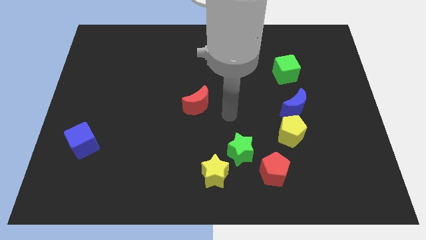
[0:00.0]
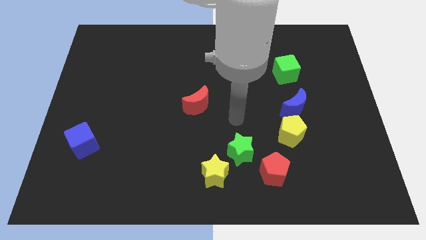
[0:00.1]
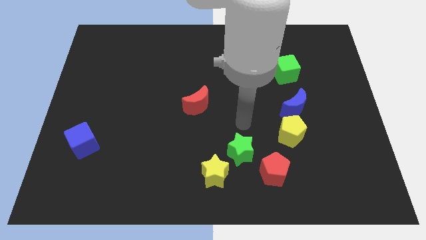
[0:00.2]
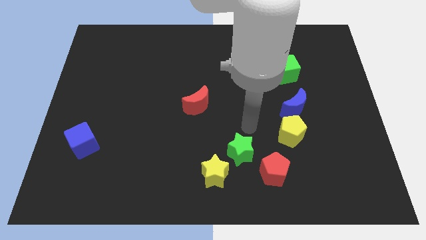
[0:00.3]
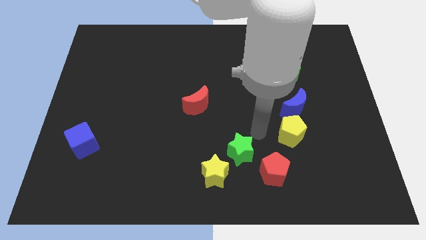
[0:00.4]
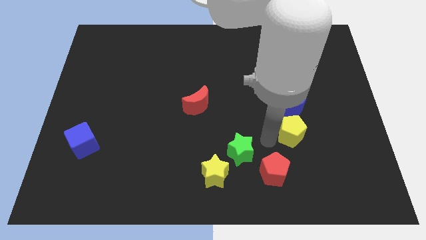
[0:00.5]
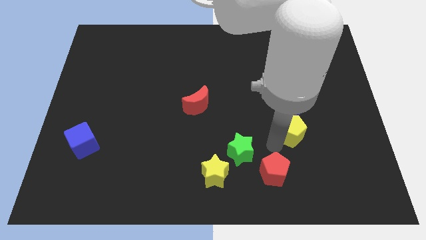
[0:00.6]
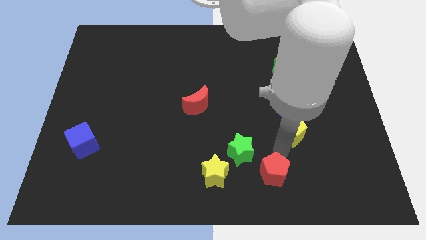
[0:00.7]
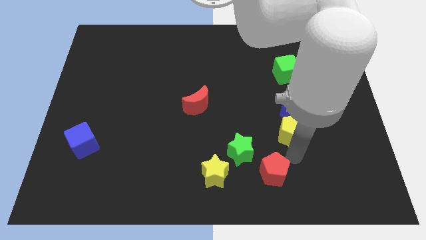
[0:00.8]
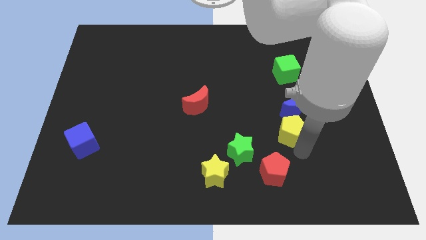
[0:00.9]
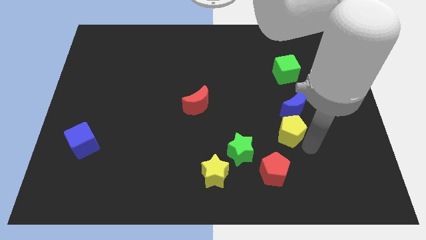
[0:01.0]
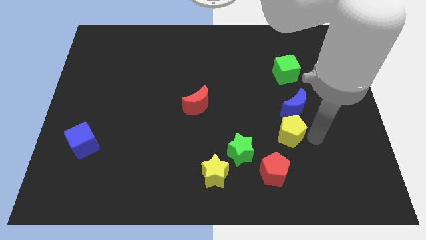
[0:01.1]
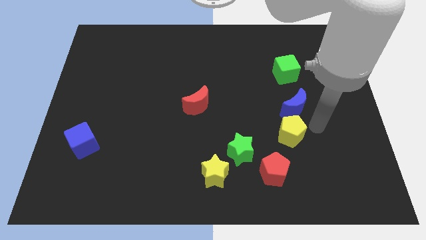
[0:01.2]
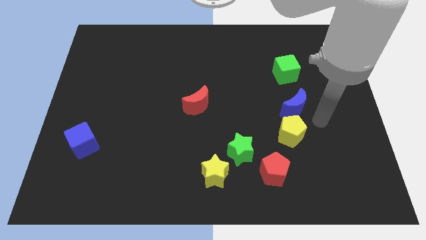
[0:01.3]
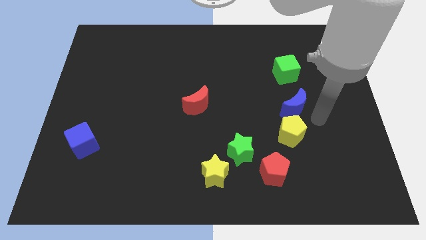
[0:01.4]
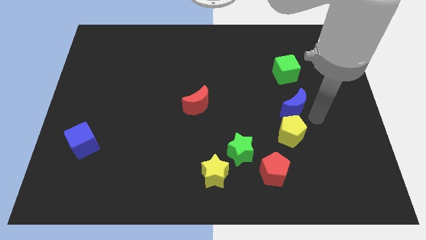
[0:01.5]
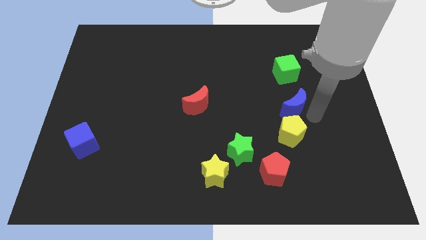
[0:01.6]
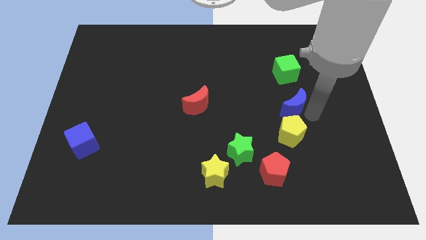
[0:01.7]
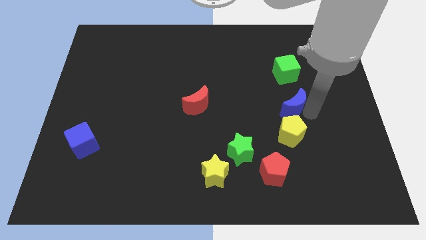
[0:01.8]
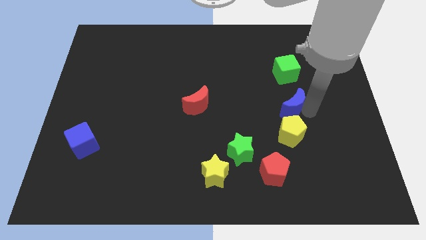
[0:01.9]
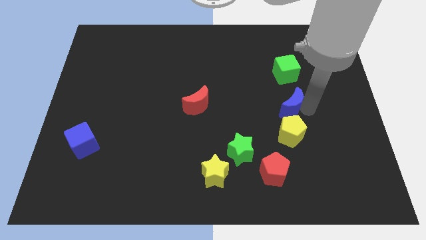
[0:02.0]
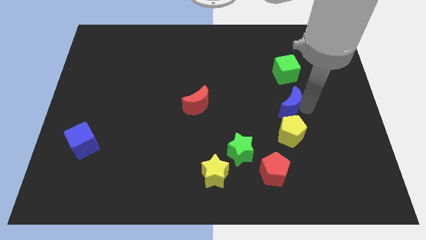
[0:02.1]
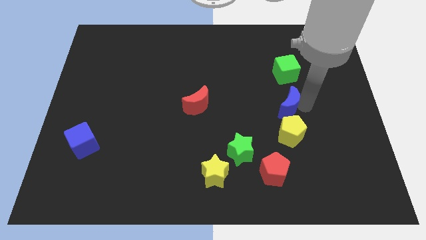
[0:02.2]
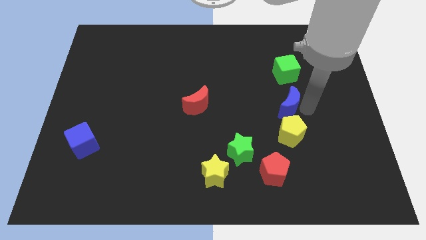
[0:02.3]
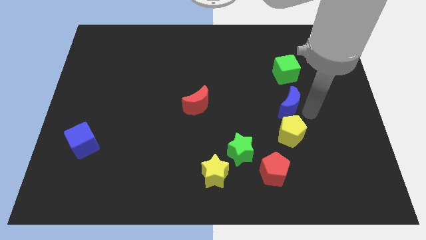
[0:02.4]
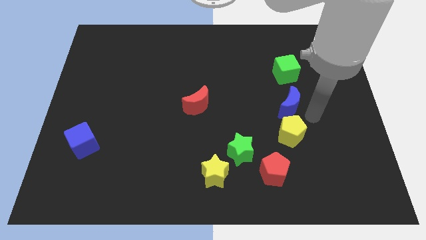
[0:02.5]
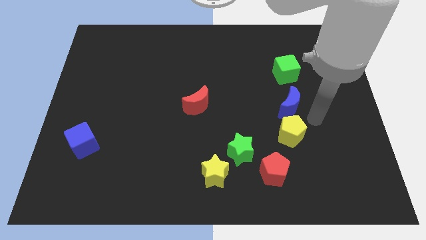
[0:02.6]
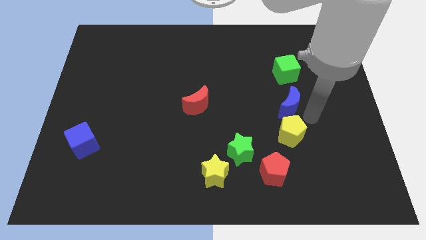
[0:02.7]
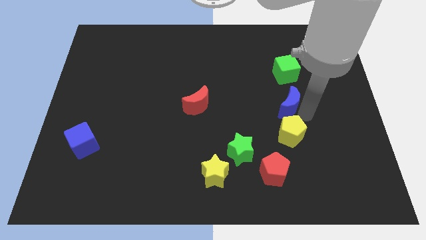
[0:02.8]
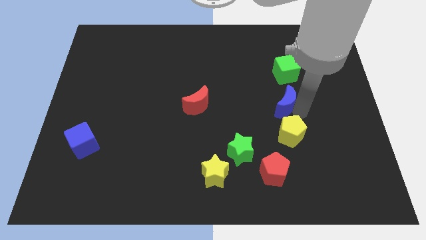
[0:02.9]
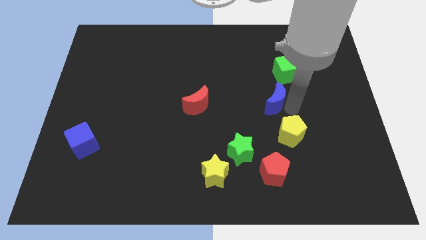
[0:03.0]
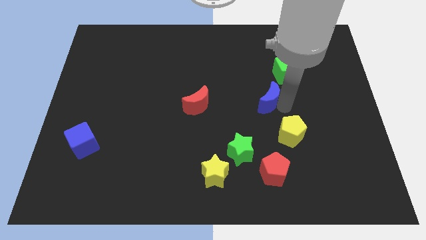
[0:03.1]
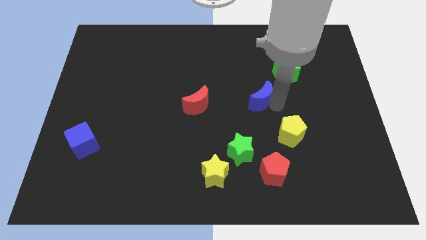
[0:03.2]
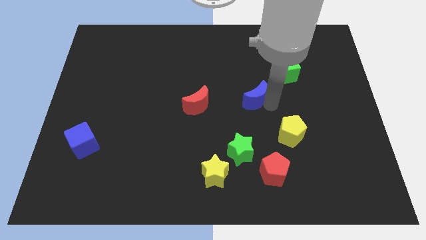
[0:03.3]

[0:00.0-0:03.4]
slightly move the blue moon diagonally upwards and left

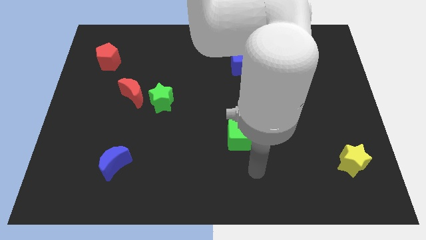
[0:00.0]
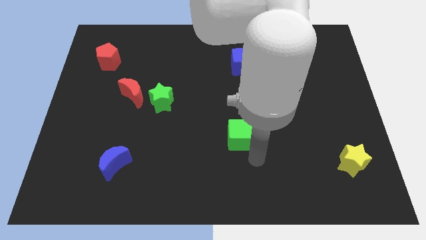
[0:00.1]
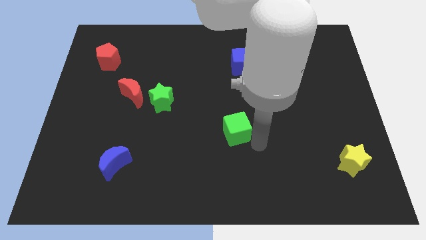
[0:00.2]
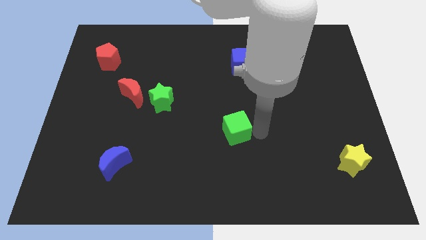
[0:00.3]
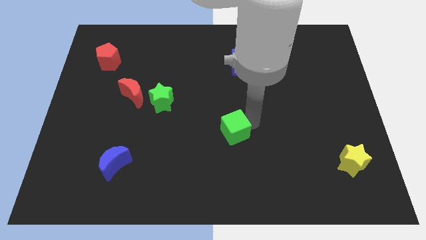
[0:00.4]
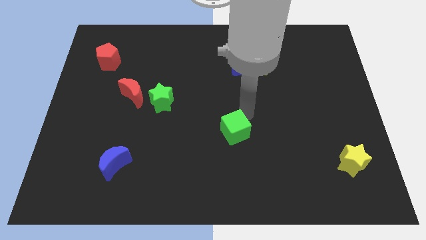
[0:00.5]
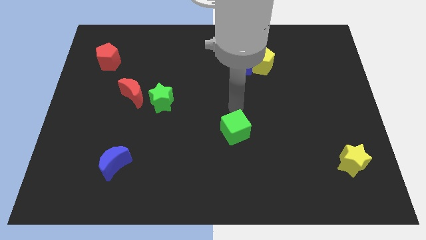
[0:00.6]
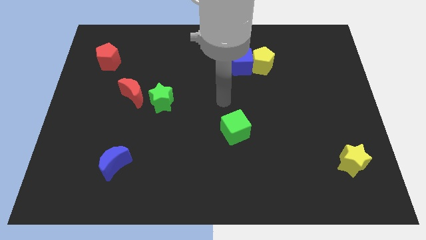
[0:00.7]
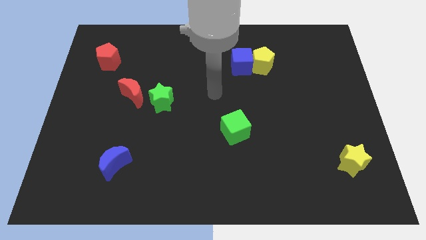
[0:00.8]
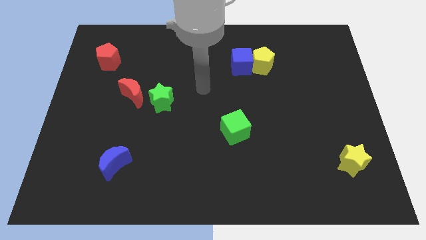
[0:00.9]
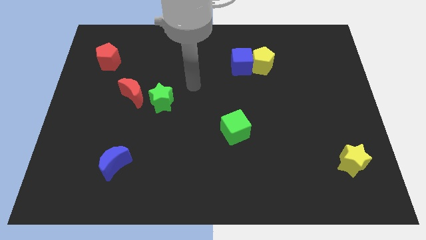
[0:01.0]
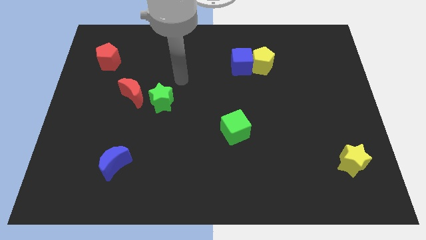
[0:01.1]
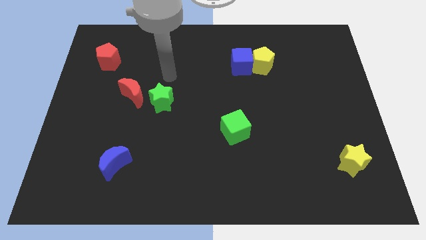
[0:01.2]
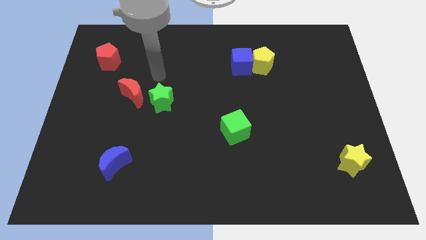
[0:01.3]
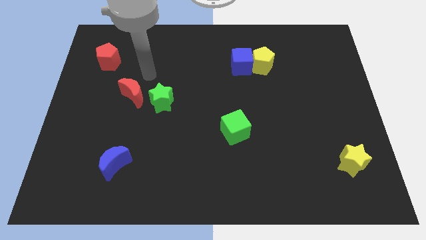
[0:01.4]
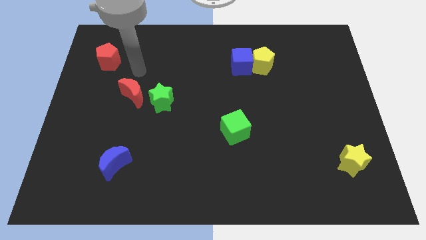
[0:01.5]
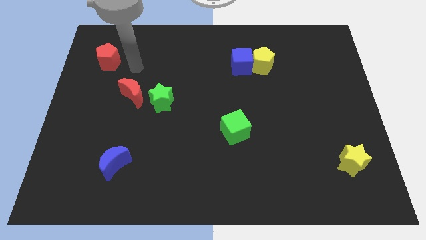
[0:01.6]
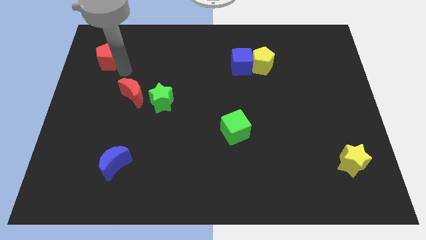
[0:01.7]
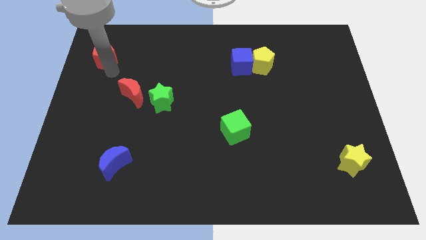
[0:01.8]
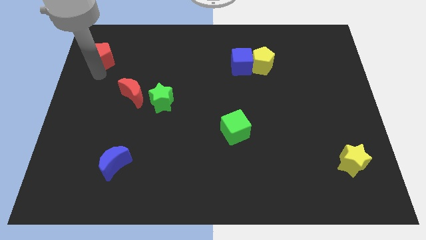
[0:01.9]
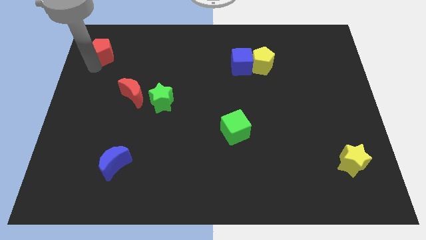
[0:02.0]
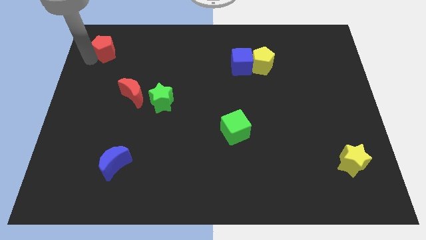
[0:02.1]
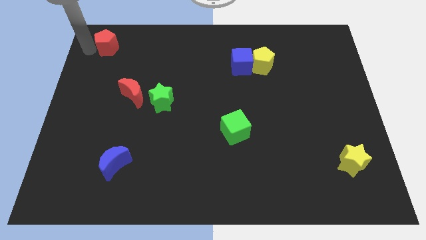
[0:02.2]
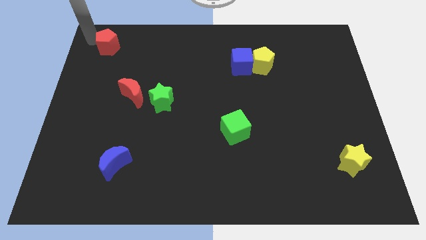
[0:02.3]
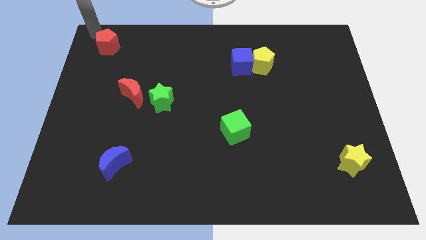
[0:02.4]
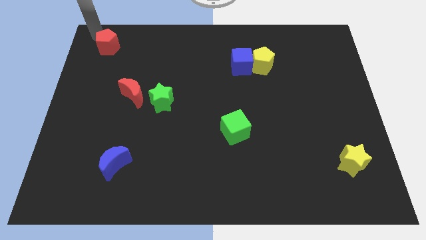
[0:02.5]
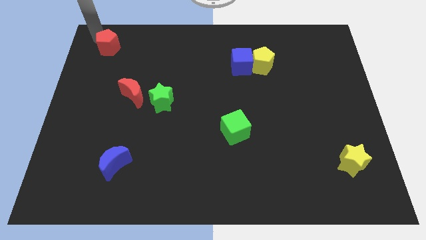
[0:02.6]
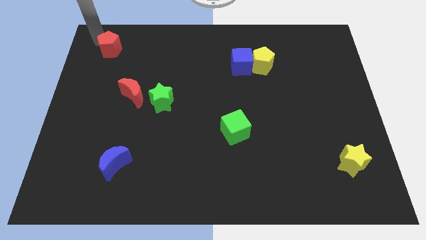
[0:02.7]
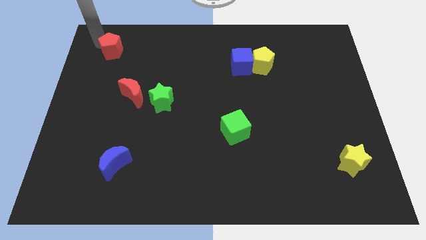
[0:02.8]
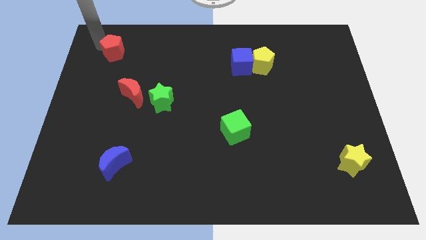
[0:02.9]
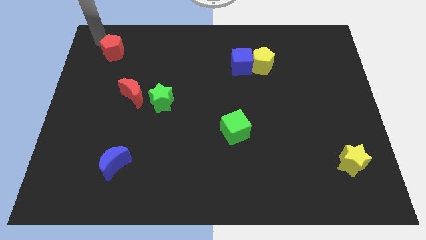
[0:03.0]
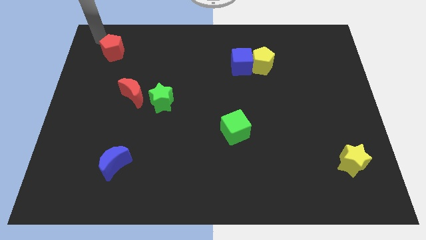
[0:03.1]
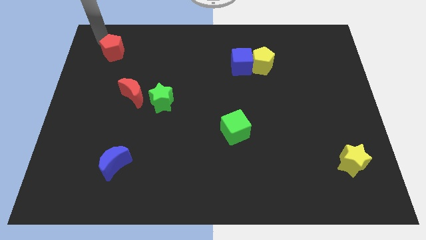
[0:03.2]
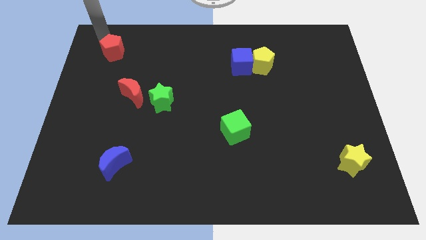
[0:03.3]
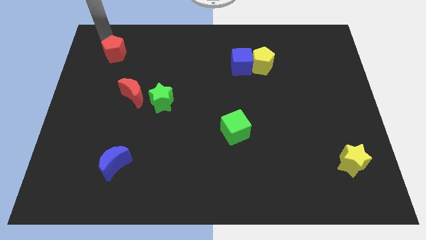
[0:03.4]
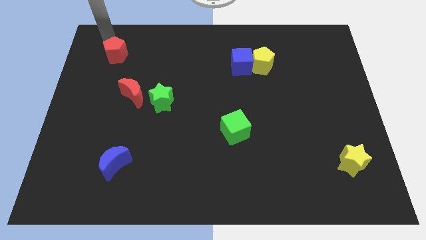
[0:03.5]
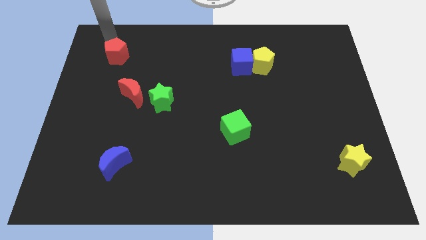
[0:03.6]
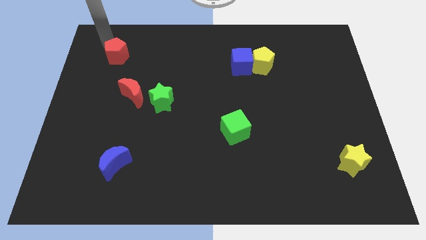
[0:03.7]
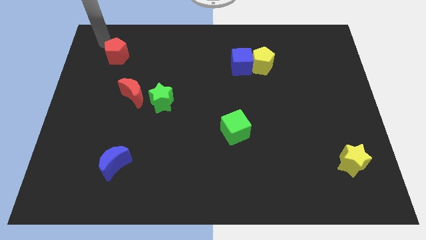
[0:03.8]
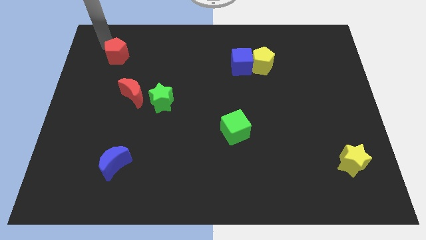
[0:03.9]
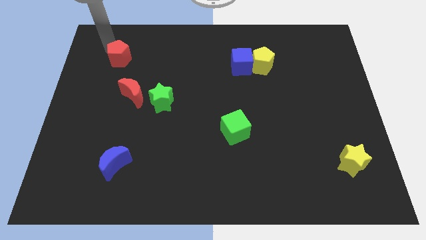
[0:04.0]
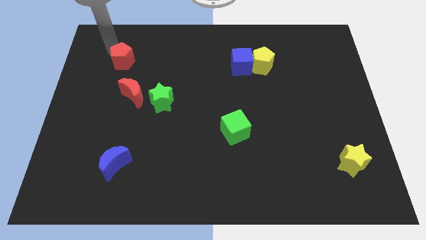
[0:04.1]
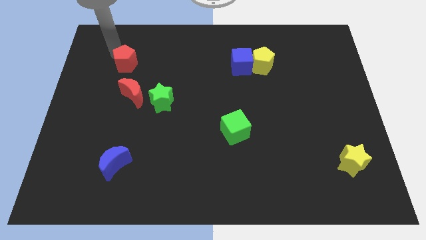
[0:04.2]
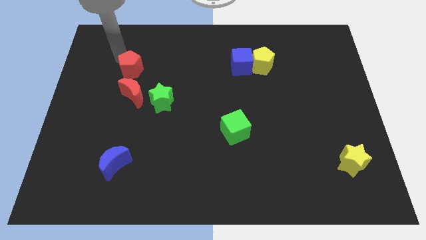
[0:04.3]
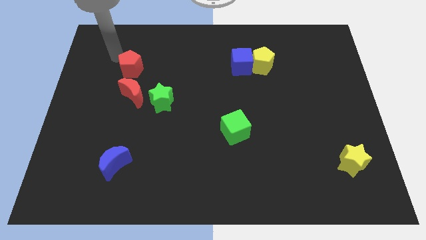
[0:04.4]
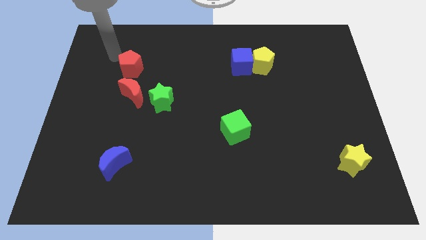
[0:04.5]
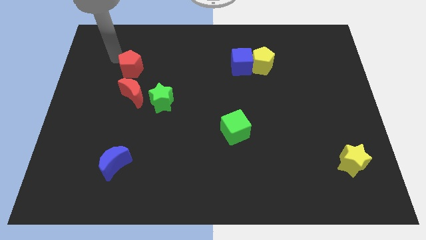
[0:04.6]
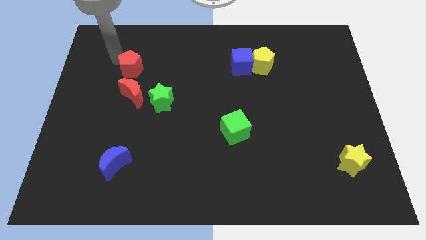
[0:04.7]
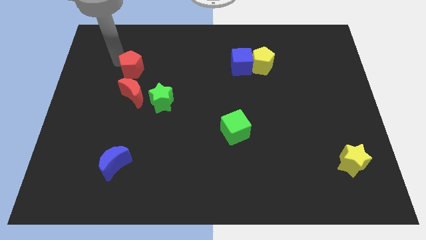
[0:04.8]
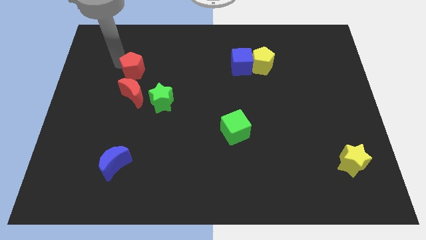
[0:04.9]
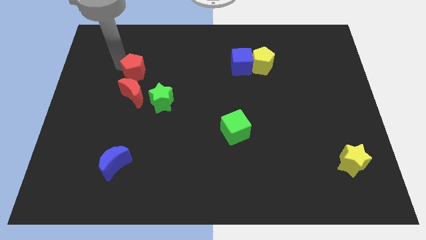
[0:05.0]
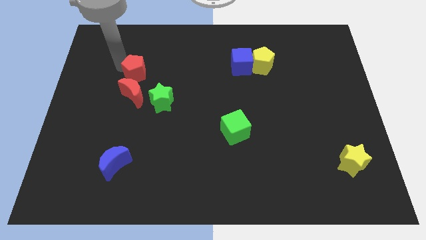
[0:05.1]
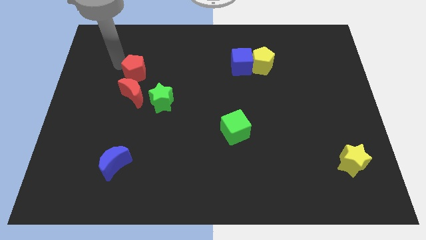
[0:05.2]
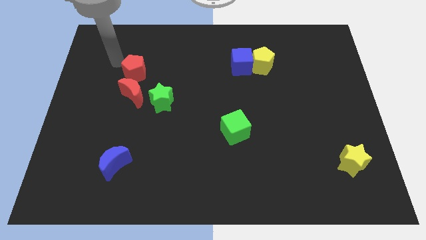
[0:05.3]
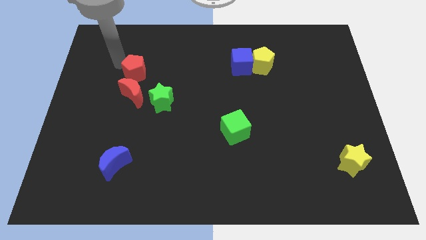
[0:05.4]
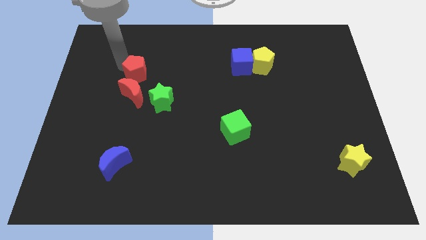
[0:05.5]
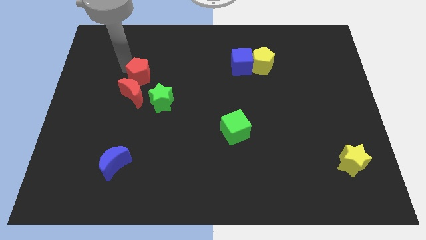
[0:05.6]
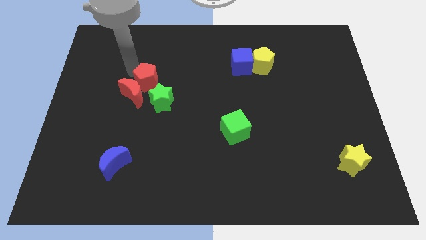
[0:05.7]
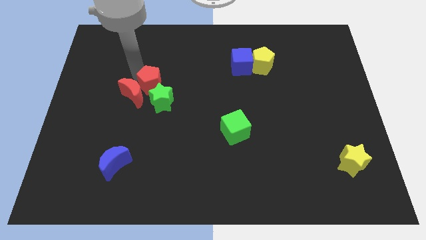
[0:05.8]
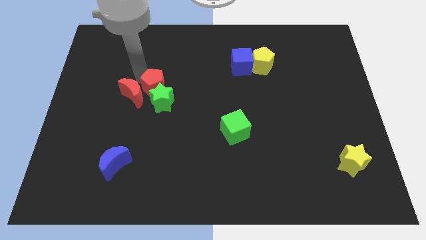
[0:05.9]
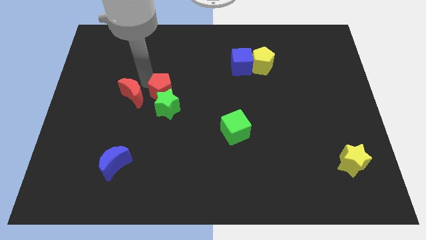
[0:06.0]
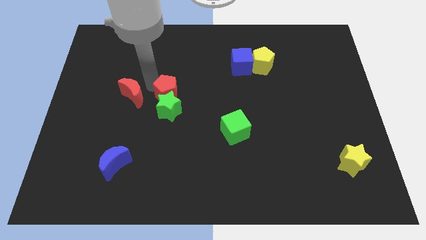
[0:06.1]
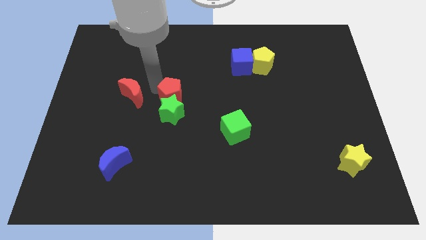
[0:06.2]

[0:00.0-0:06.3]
slide the red pentagon diagonally downwards and right
